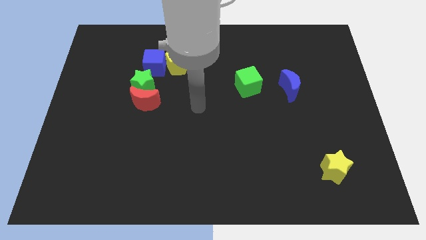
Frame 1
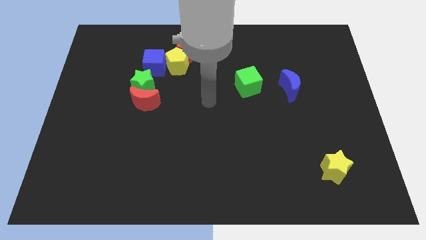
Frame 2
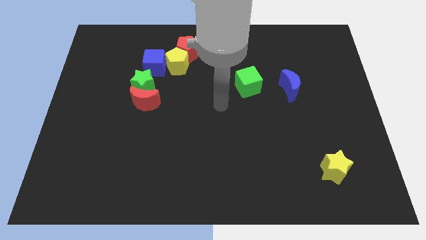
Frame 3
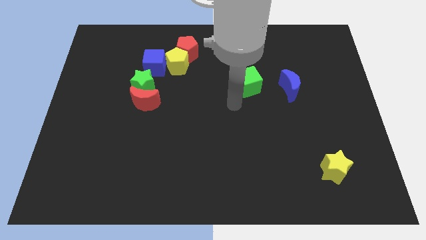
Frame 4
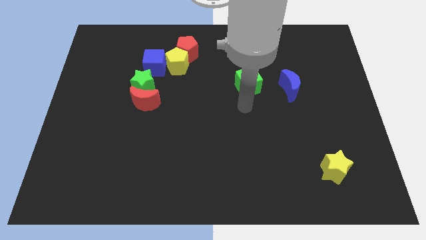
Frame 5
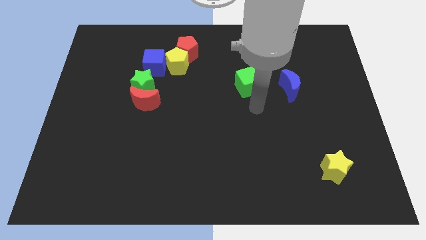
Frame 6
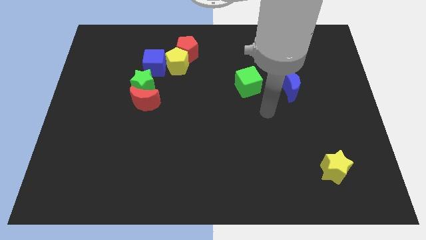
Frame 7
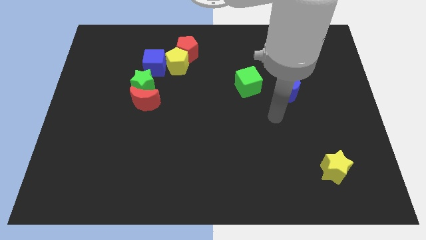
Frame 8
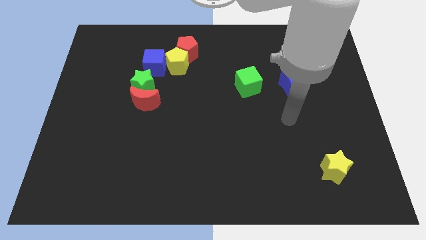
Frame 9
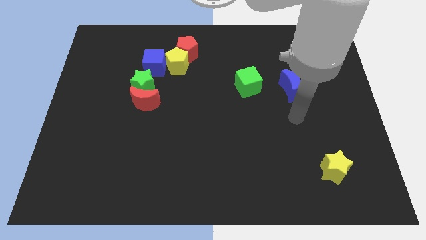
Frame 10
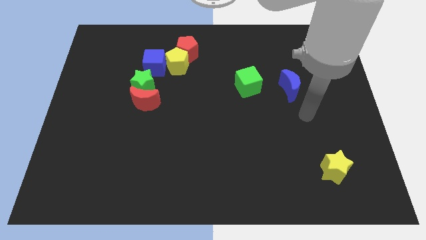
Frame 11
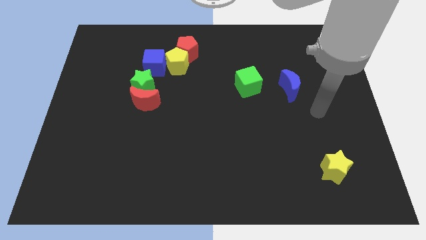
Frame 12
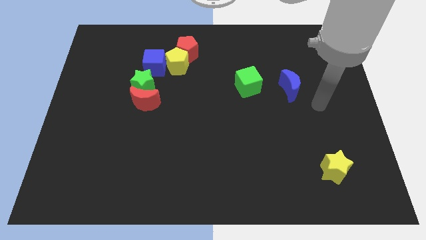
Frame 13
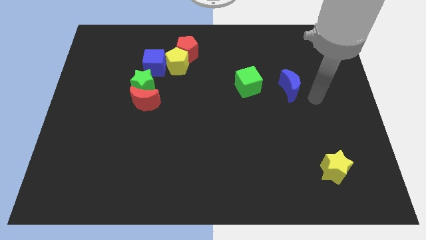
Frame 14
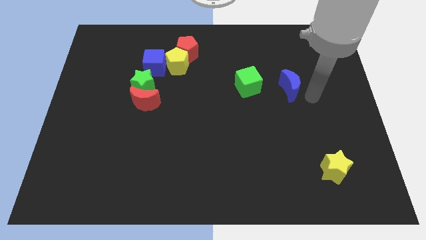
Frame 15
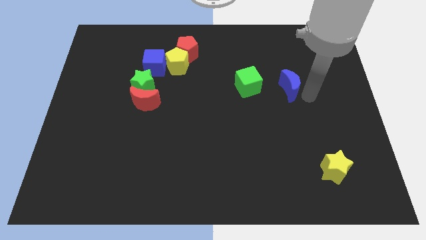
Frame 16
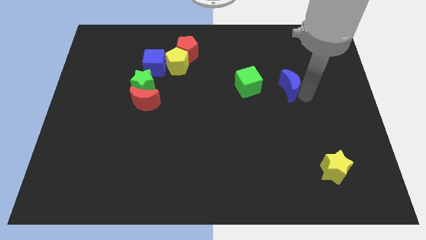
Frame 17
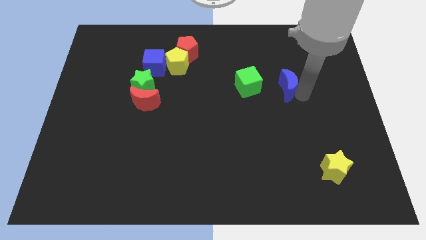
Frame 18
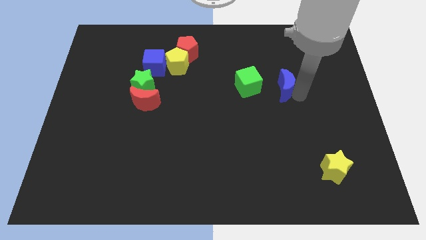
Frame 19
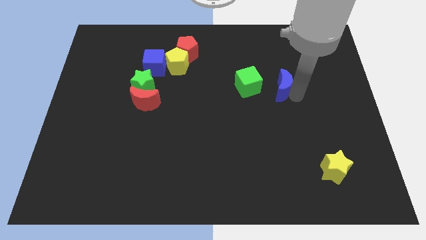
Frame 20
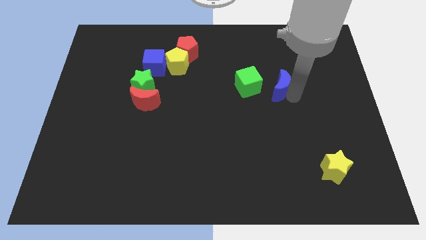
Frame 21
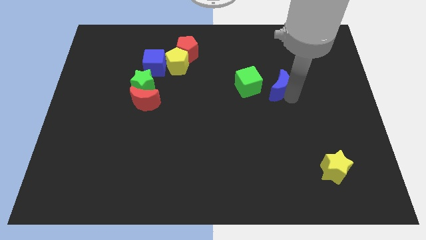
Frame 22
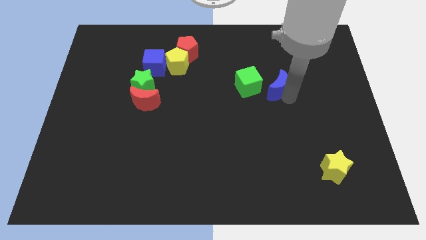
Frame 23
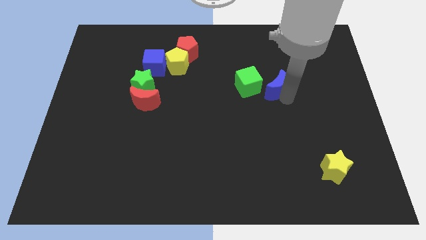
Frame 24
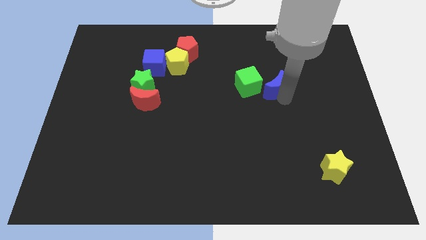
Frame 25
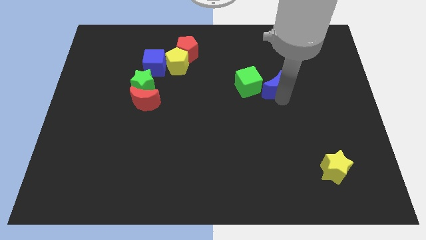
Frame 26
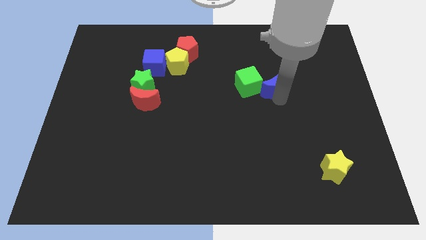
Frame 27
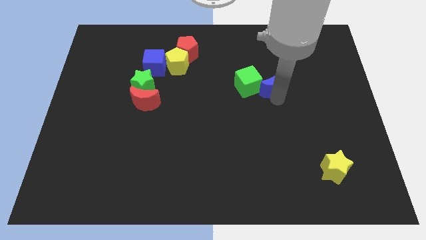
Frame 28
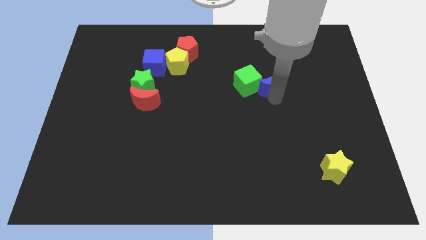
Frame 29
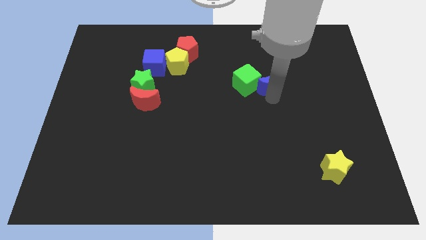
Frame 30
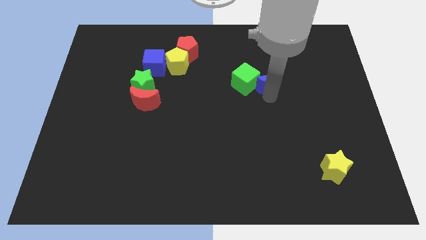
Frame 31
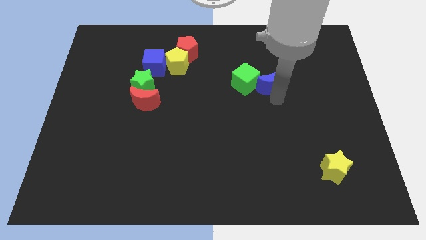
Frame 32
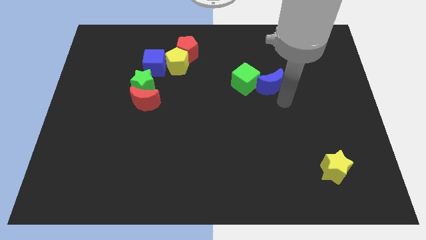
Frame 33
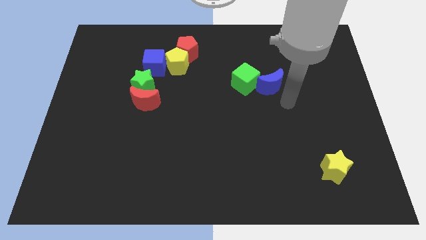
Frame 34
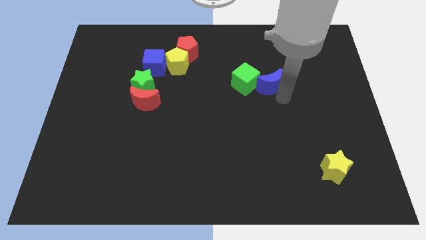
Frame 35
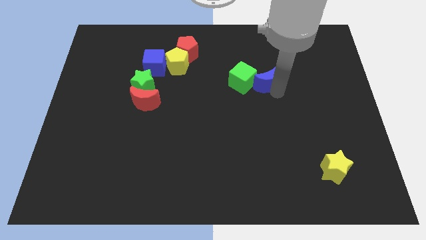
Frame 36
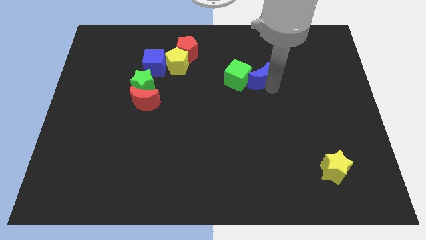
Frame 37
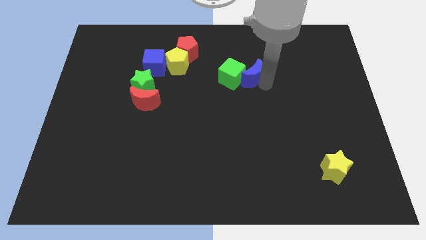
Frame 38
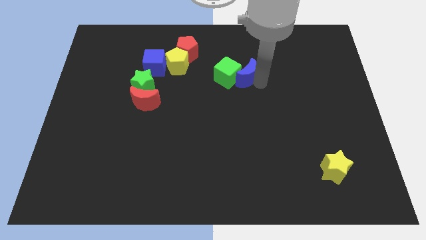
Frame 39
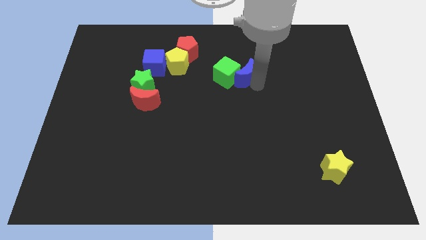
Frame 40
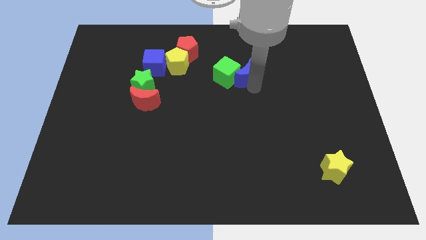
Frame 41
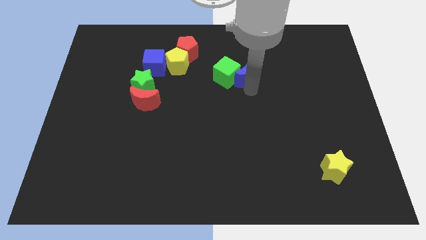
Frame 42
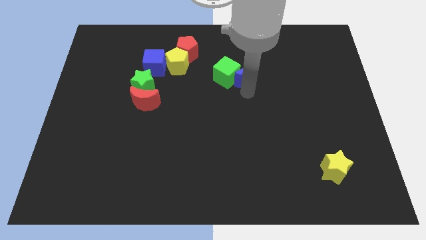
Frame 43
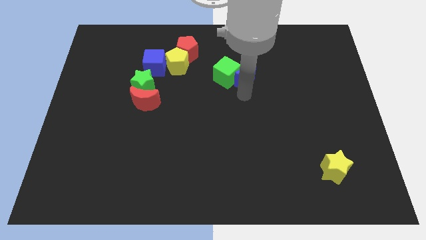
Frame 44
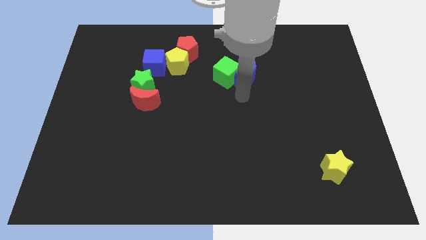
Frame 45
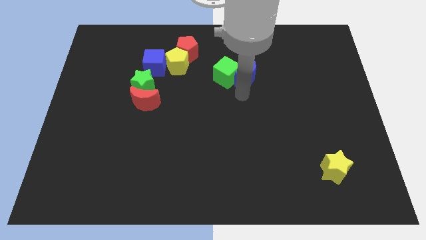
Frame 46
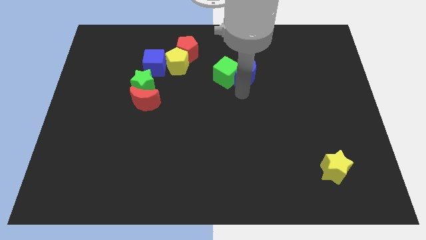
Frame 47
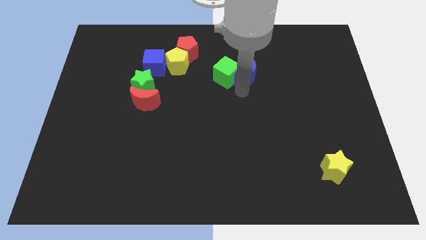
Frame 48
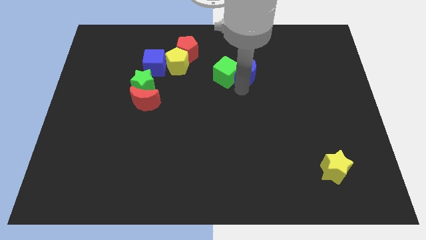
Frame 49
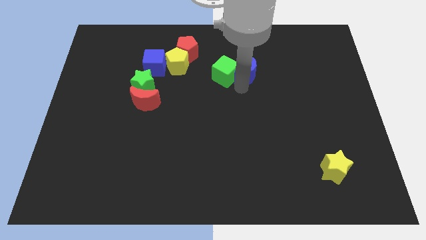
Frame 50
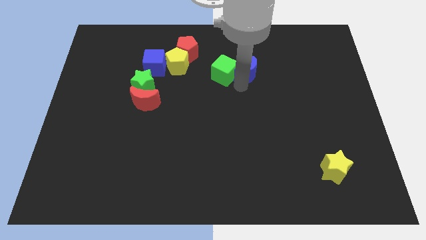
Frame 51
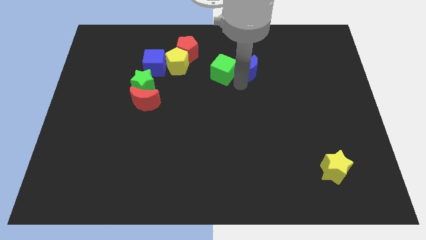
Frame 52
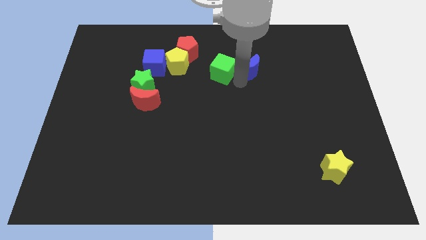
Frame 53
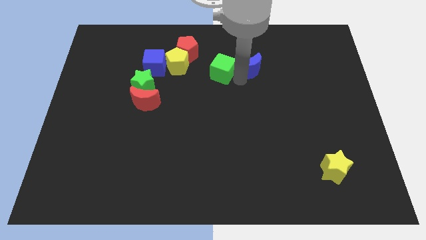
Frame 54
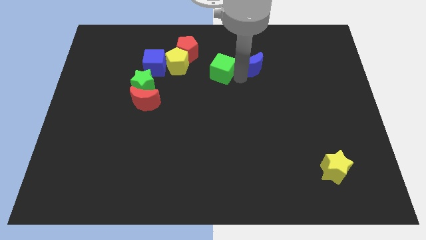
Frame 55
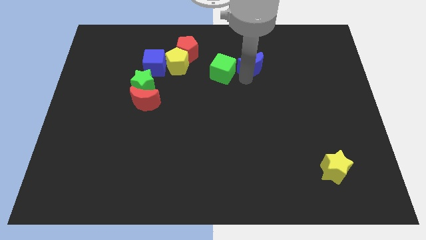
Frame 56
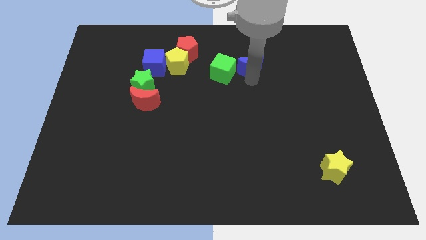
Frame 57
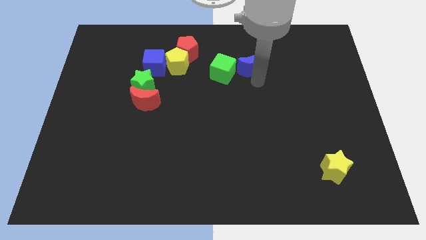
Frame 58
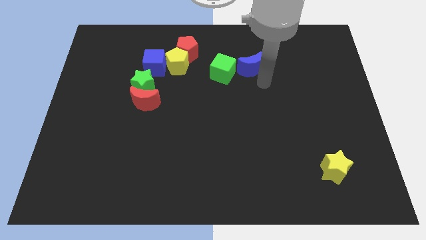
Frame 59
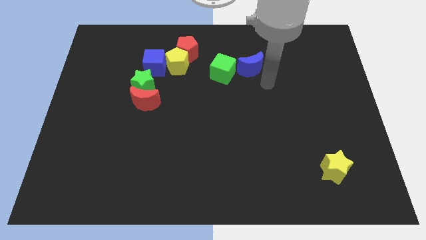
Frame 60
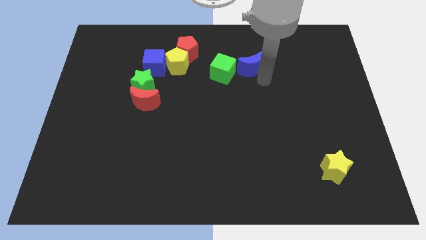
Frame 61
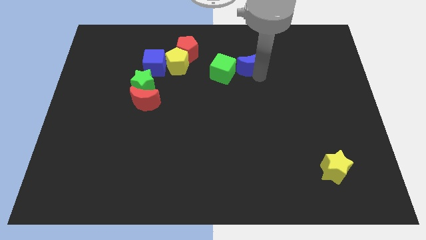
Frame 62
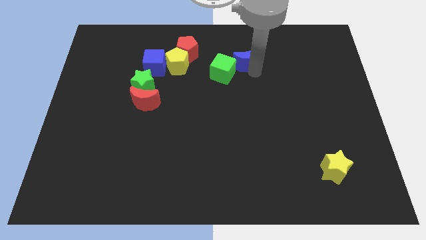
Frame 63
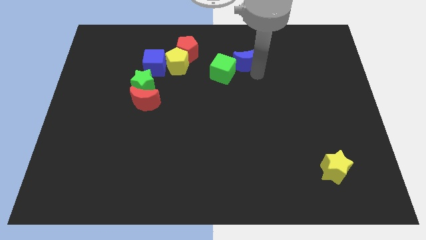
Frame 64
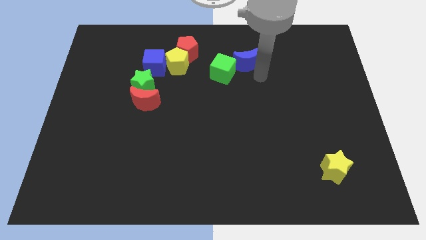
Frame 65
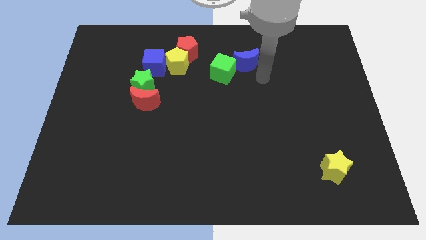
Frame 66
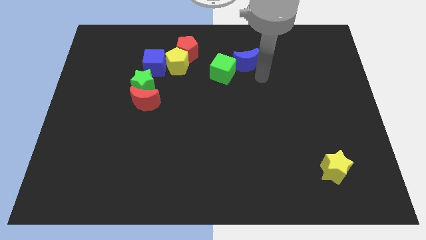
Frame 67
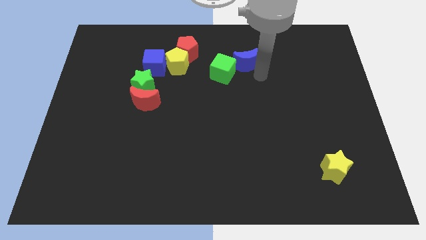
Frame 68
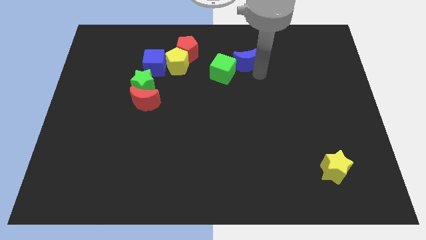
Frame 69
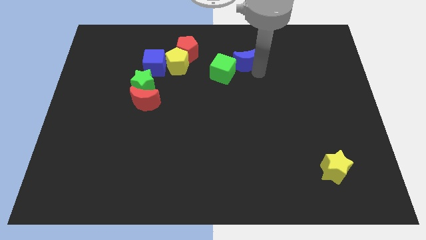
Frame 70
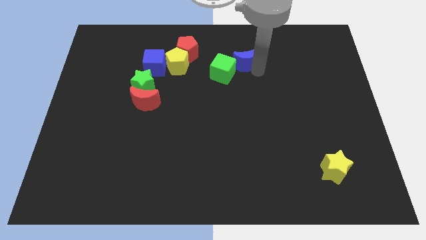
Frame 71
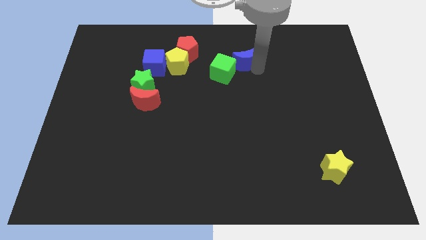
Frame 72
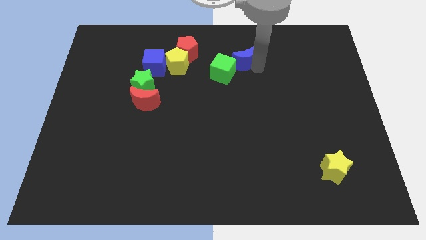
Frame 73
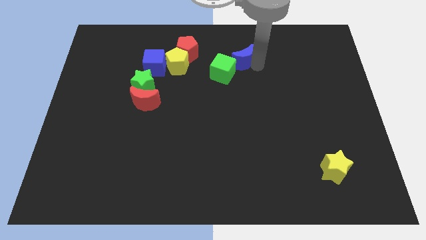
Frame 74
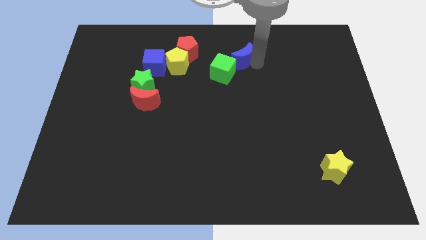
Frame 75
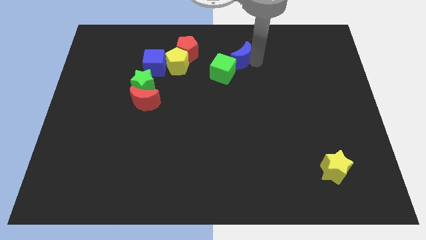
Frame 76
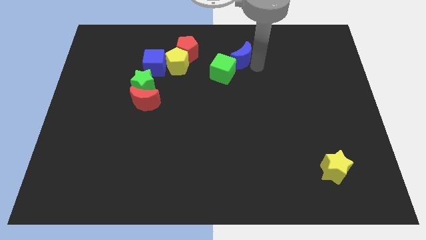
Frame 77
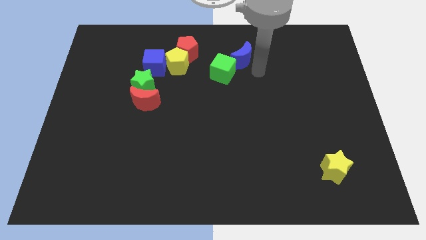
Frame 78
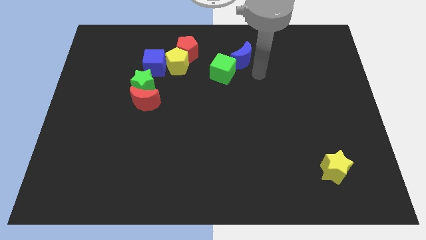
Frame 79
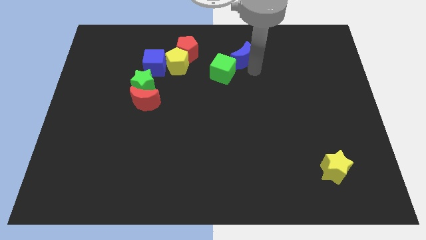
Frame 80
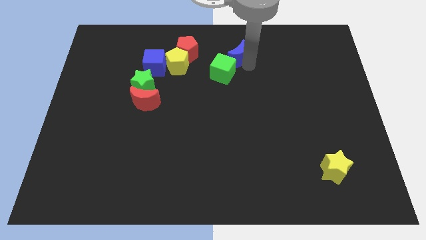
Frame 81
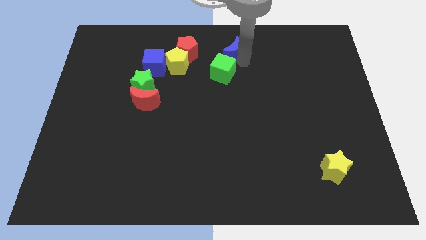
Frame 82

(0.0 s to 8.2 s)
move the blue moon to the top
